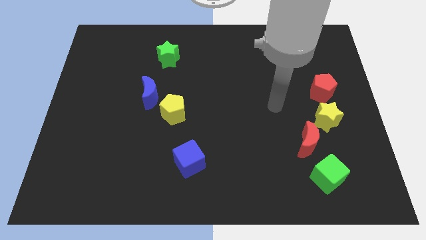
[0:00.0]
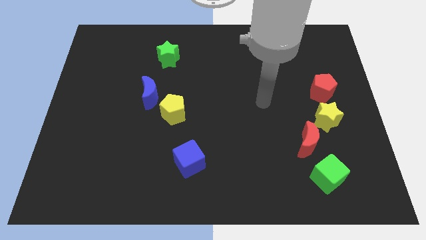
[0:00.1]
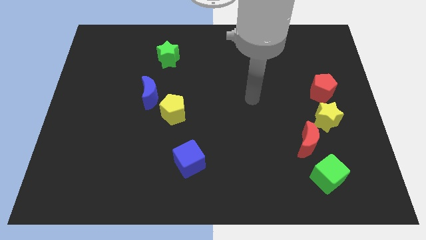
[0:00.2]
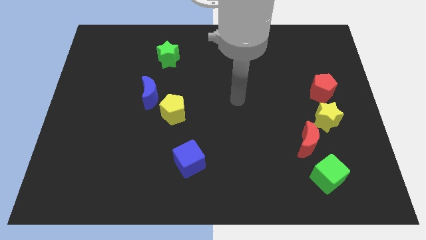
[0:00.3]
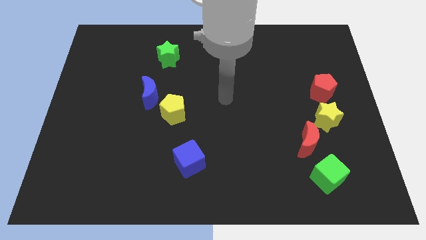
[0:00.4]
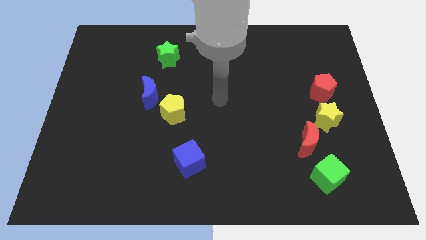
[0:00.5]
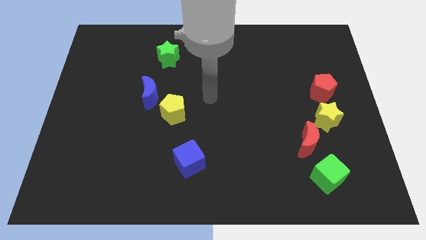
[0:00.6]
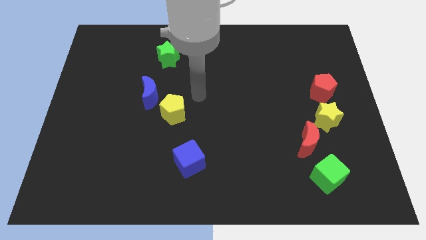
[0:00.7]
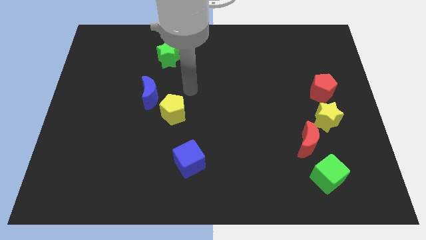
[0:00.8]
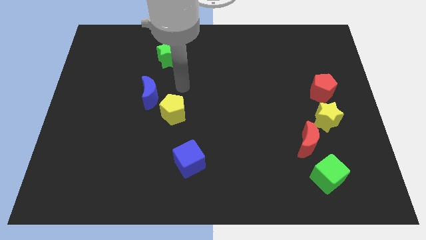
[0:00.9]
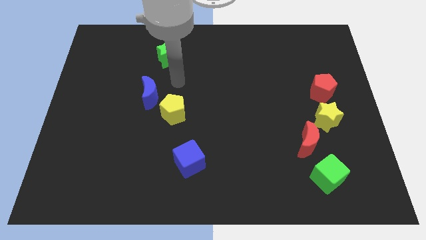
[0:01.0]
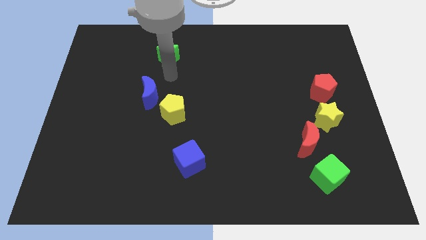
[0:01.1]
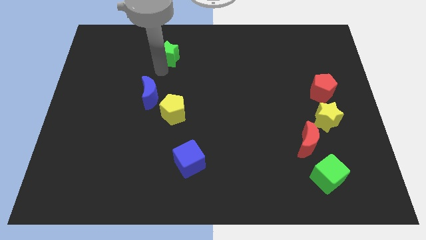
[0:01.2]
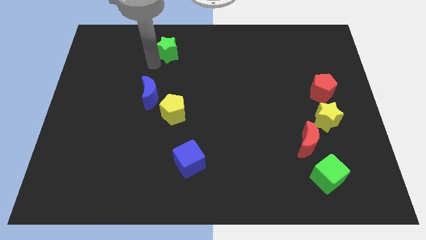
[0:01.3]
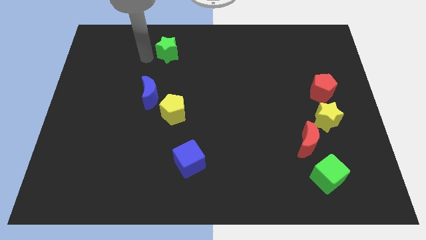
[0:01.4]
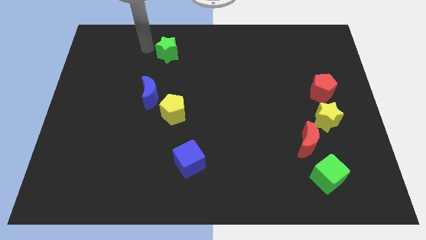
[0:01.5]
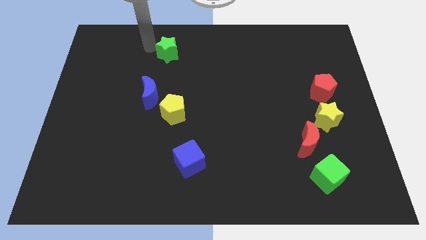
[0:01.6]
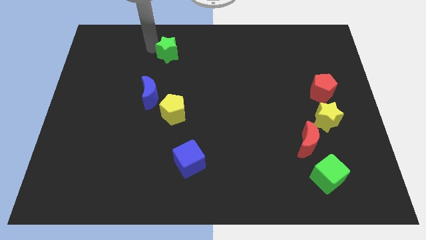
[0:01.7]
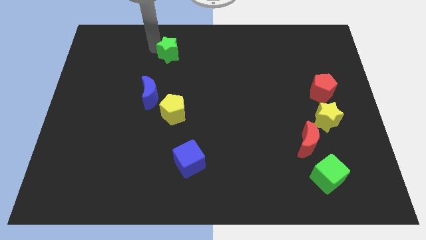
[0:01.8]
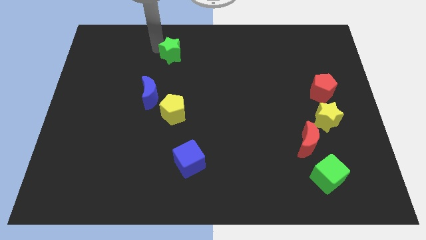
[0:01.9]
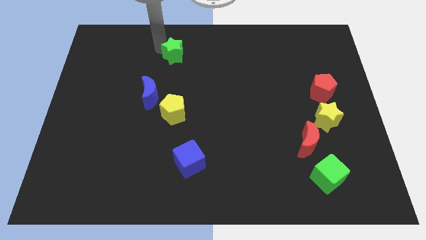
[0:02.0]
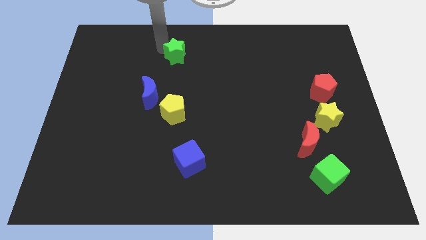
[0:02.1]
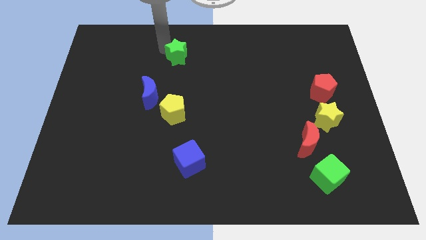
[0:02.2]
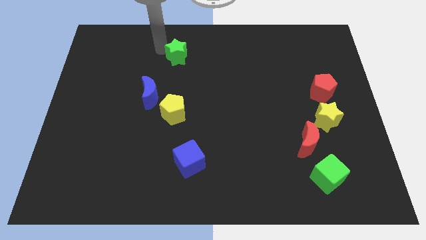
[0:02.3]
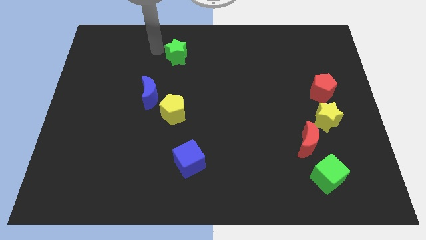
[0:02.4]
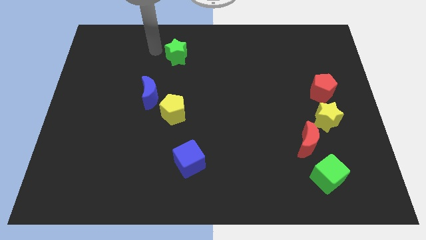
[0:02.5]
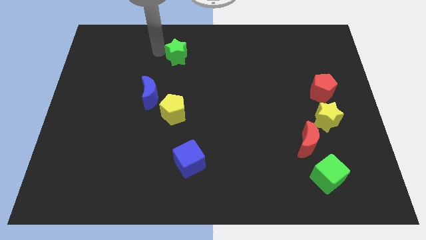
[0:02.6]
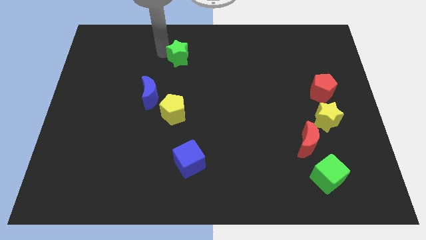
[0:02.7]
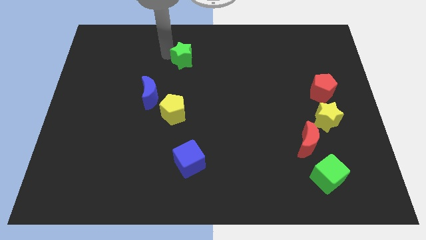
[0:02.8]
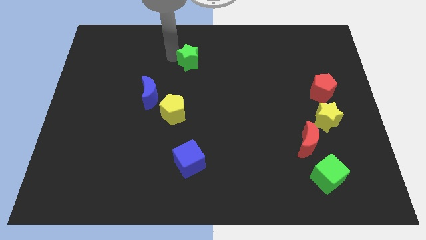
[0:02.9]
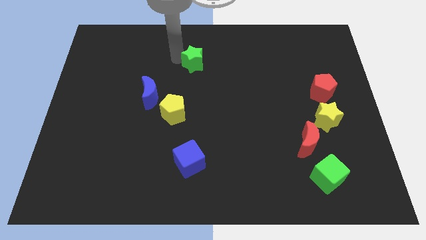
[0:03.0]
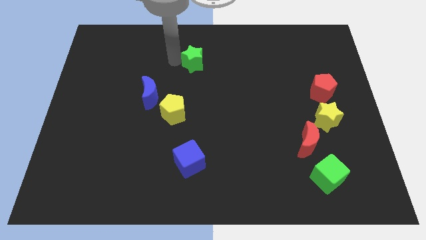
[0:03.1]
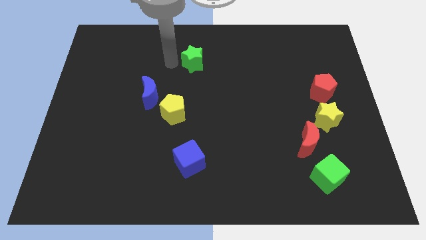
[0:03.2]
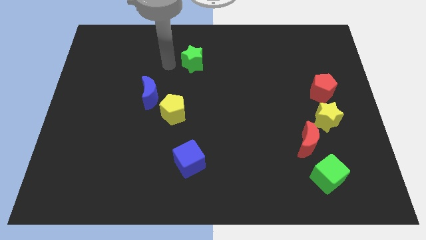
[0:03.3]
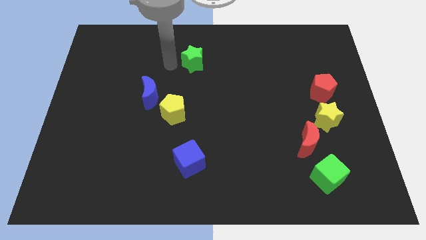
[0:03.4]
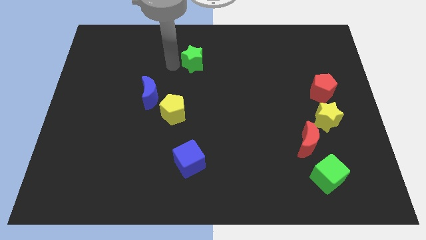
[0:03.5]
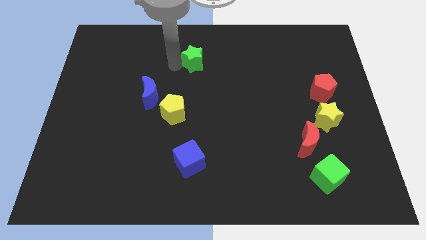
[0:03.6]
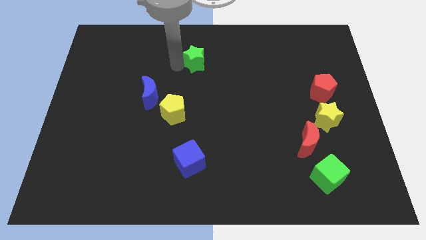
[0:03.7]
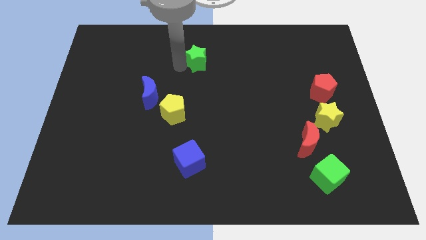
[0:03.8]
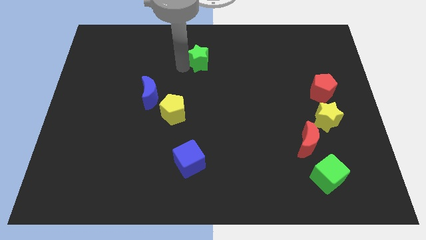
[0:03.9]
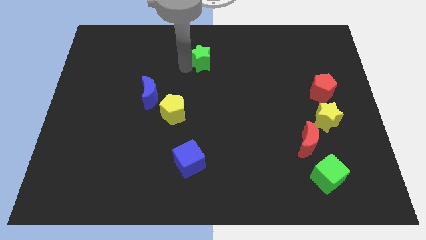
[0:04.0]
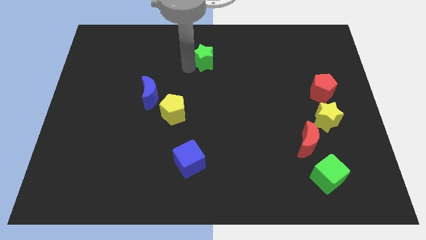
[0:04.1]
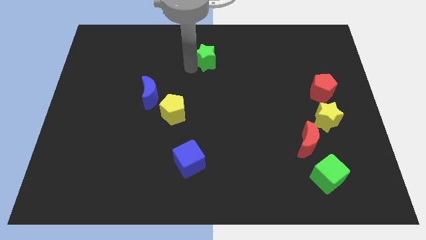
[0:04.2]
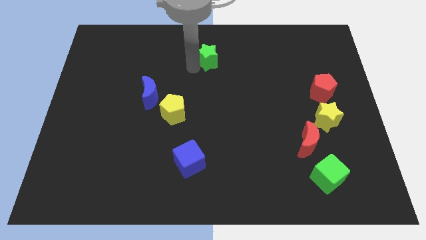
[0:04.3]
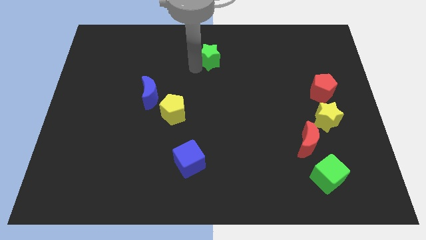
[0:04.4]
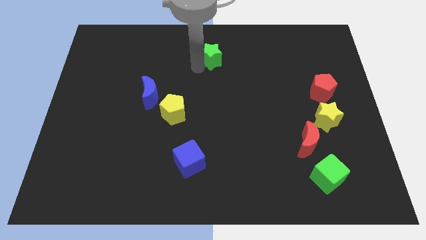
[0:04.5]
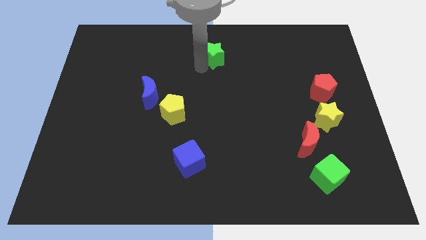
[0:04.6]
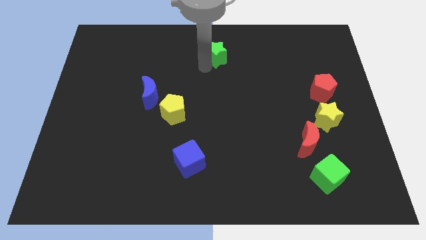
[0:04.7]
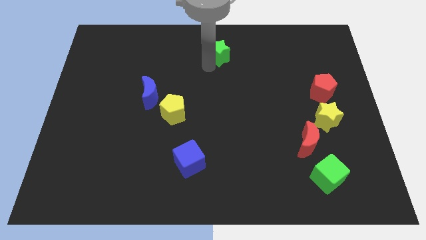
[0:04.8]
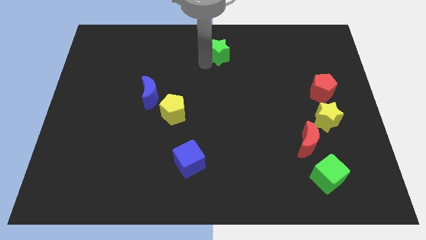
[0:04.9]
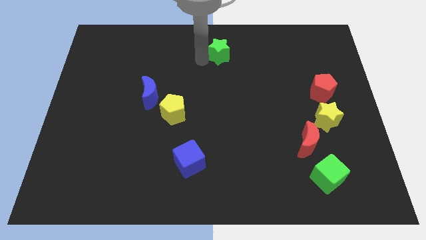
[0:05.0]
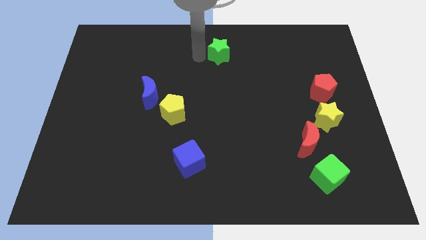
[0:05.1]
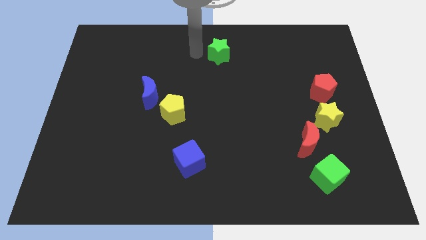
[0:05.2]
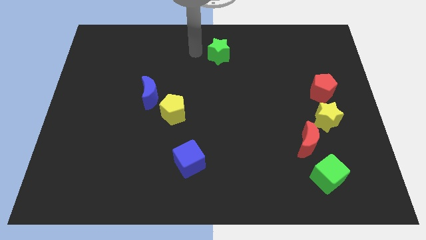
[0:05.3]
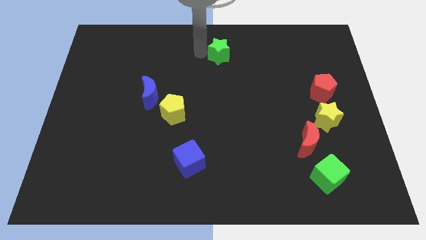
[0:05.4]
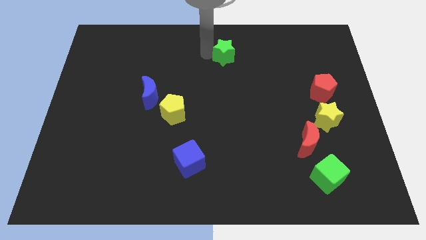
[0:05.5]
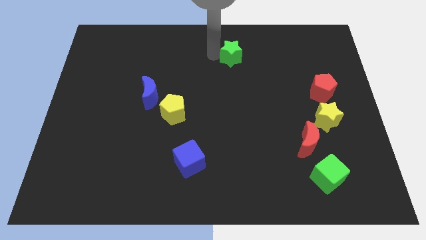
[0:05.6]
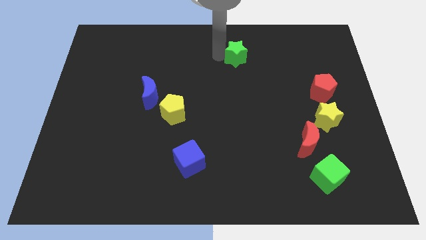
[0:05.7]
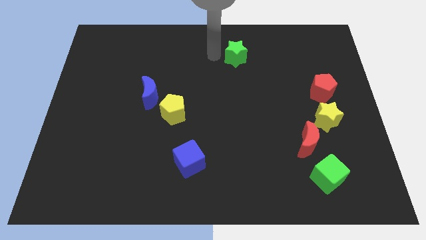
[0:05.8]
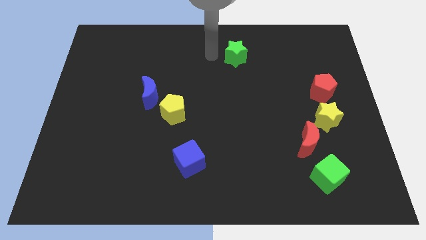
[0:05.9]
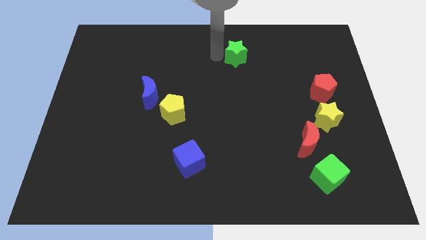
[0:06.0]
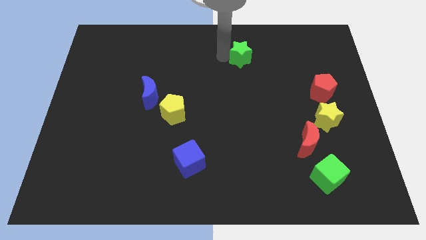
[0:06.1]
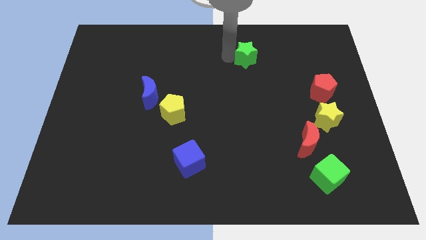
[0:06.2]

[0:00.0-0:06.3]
push the green star to the right

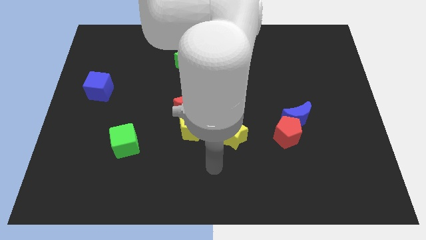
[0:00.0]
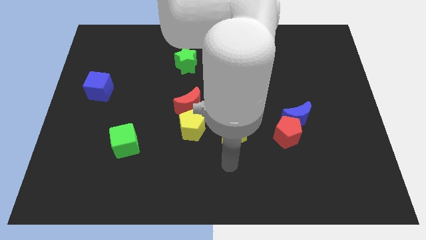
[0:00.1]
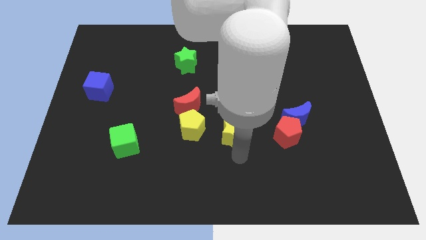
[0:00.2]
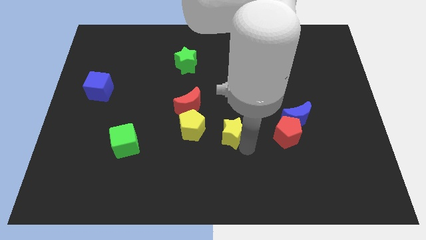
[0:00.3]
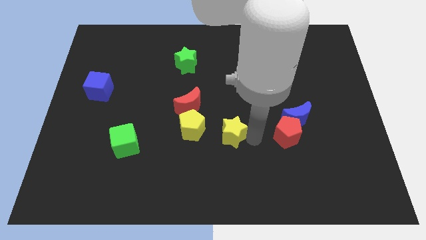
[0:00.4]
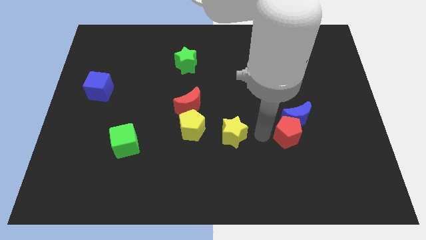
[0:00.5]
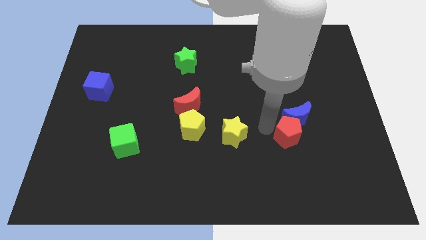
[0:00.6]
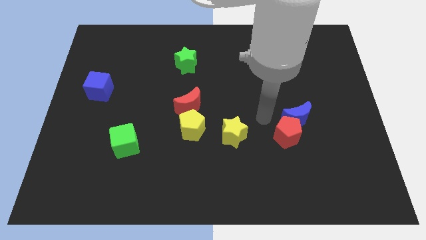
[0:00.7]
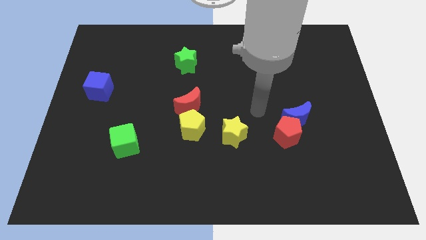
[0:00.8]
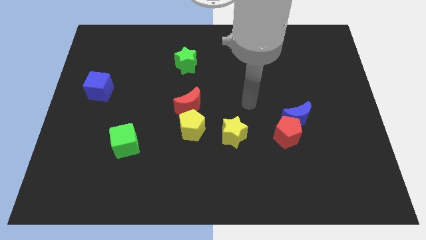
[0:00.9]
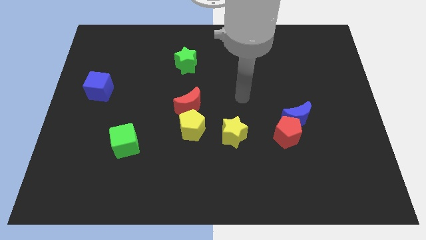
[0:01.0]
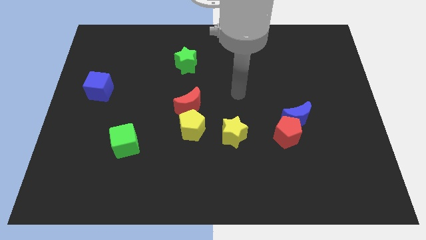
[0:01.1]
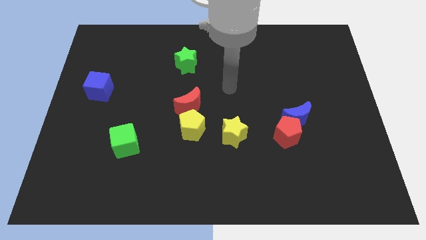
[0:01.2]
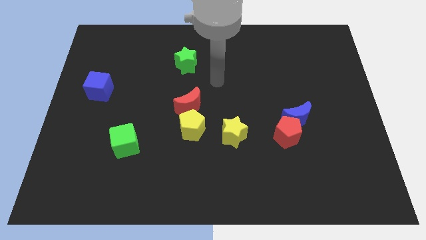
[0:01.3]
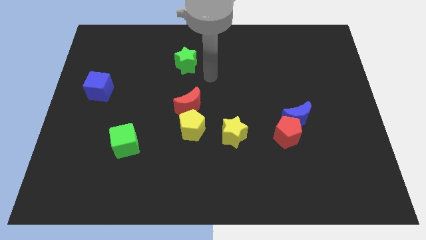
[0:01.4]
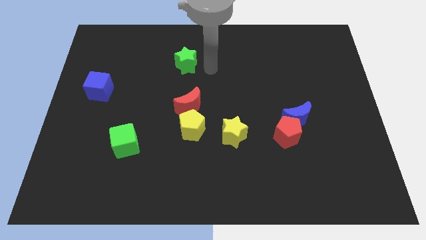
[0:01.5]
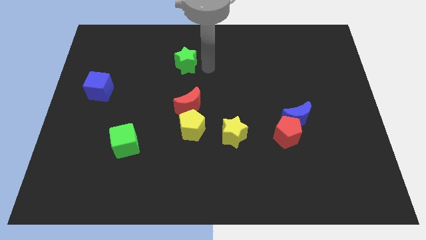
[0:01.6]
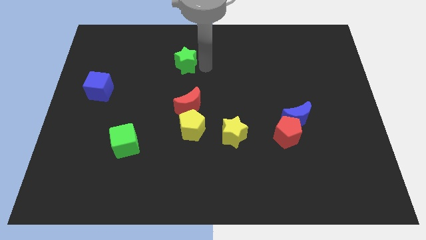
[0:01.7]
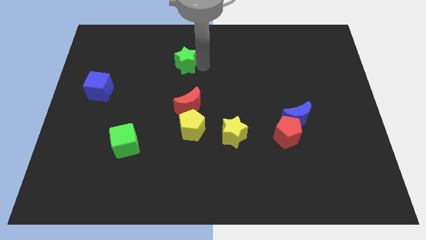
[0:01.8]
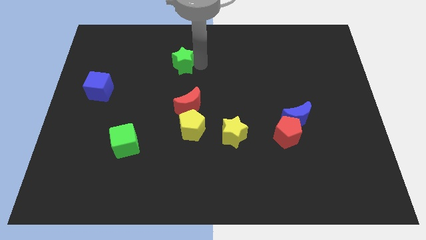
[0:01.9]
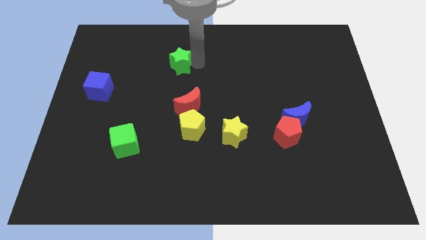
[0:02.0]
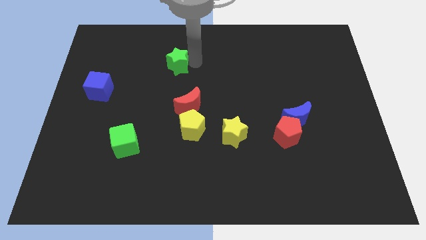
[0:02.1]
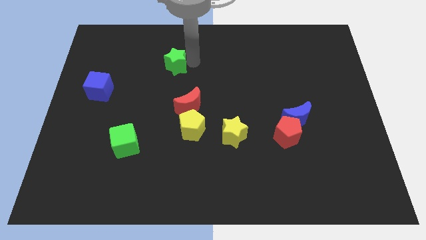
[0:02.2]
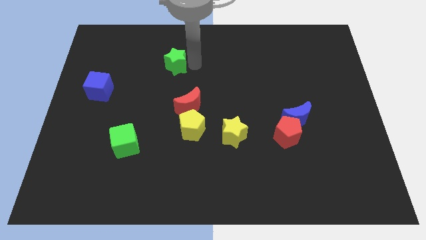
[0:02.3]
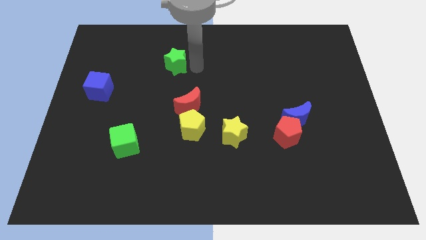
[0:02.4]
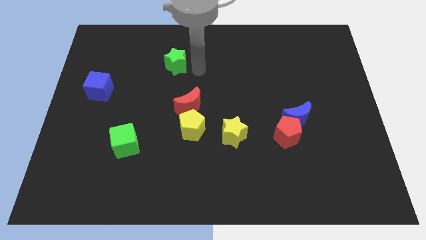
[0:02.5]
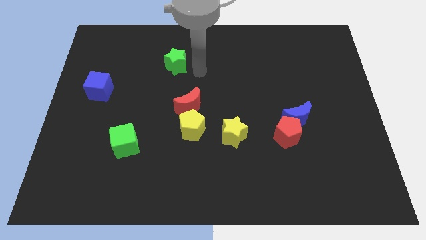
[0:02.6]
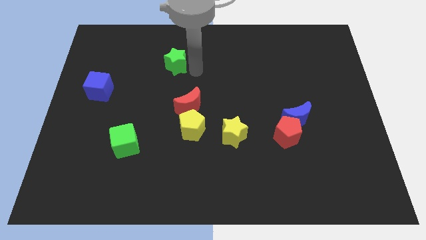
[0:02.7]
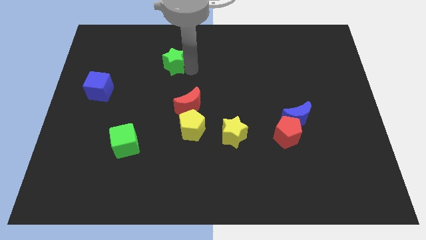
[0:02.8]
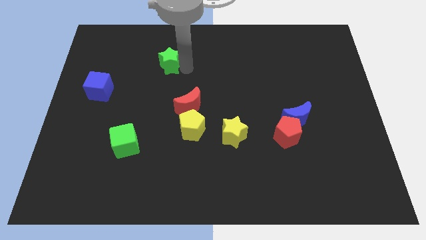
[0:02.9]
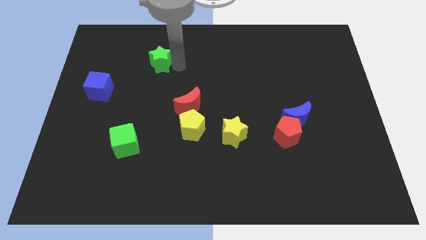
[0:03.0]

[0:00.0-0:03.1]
move the green star slightly to the left
